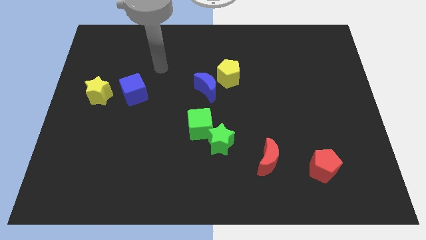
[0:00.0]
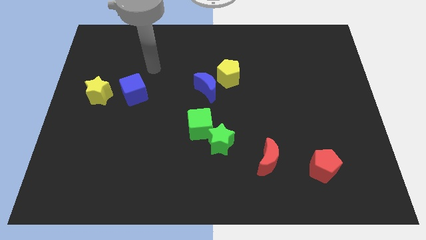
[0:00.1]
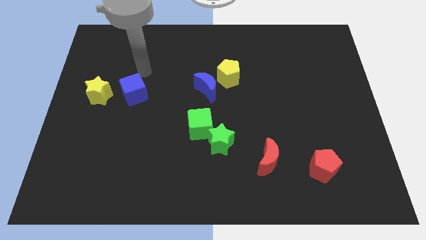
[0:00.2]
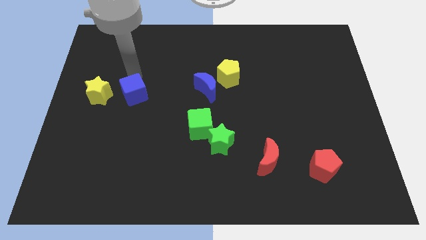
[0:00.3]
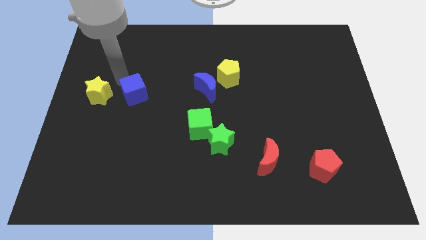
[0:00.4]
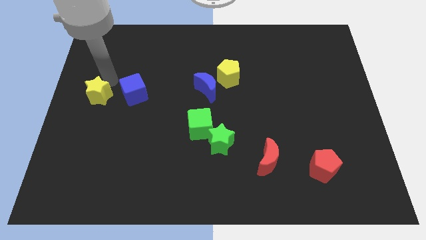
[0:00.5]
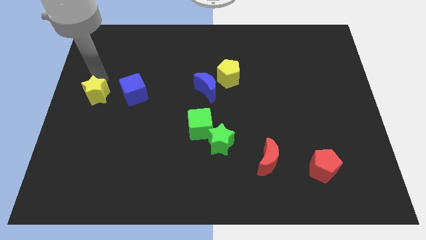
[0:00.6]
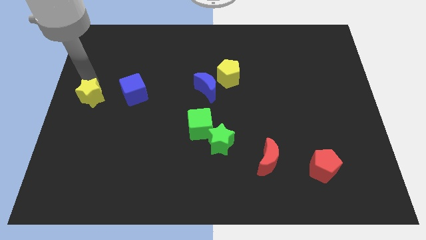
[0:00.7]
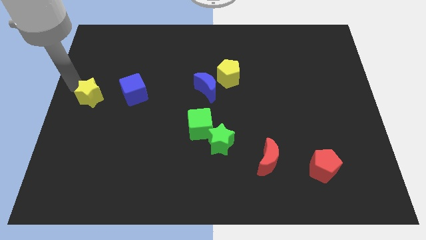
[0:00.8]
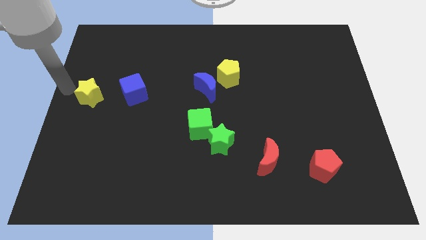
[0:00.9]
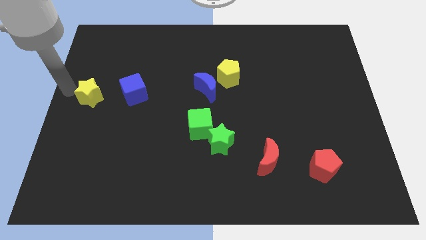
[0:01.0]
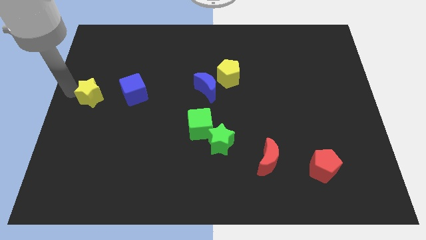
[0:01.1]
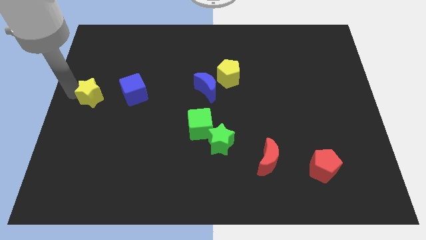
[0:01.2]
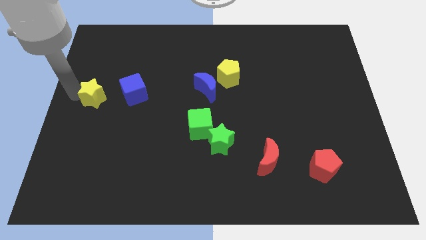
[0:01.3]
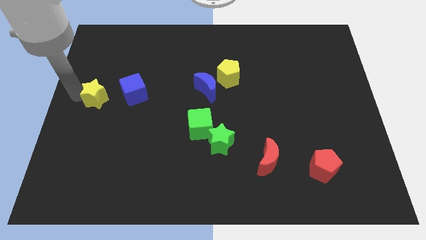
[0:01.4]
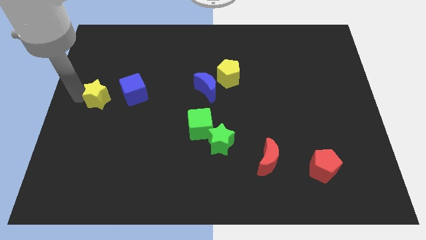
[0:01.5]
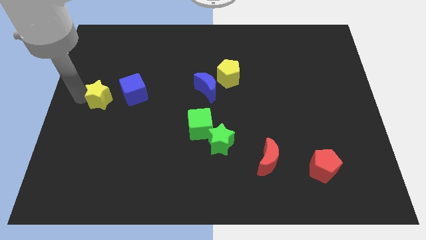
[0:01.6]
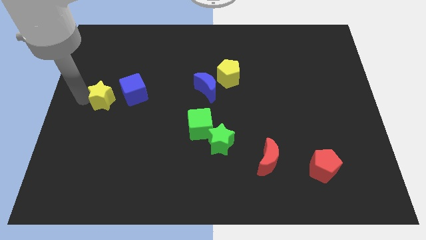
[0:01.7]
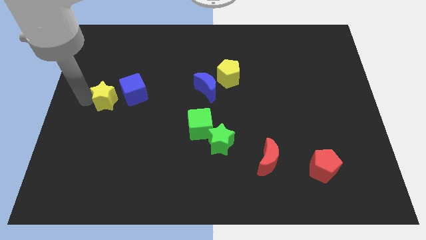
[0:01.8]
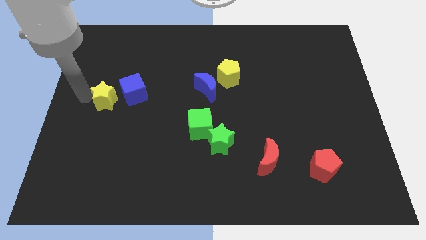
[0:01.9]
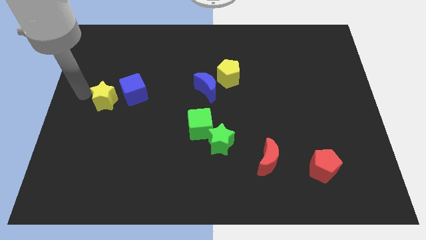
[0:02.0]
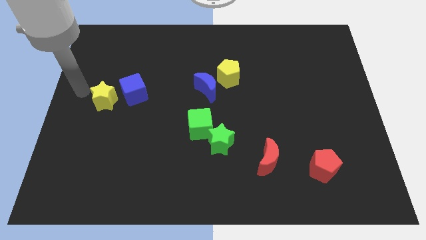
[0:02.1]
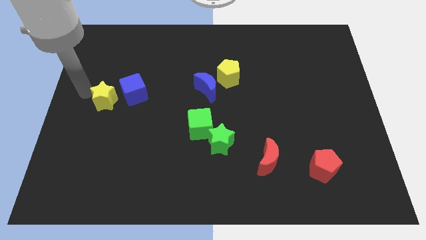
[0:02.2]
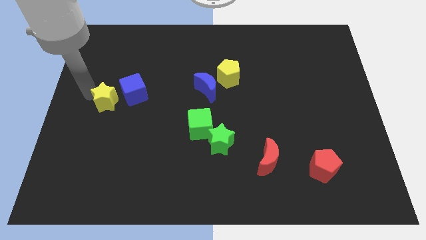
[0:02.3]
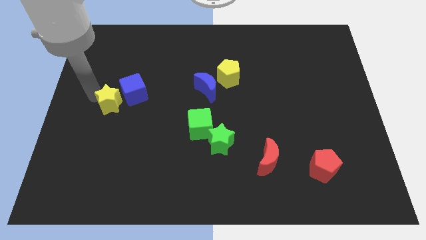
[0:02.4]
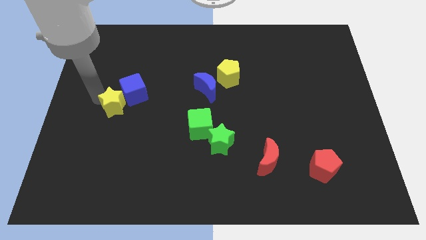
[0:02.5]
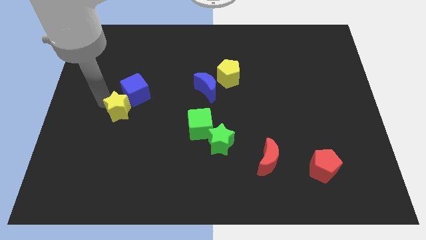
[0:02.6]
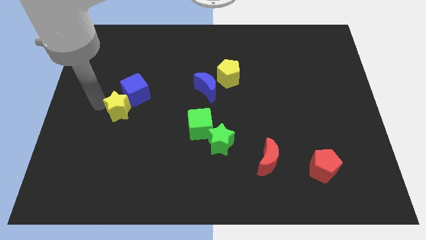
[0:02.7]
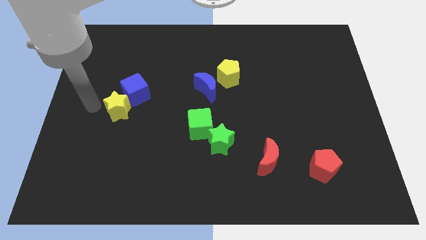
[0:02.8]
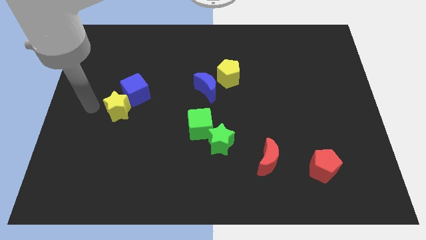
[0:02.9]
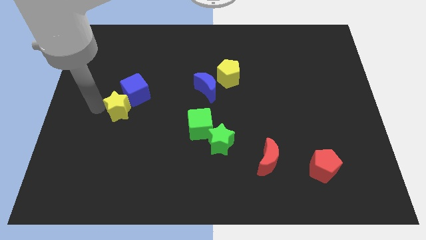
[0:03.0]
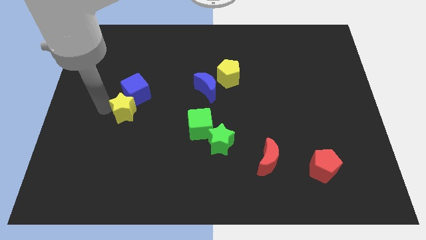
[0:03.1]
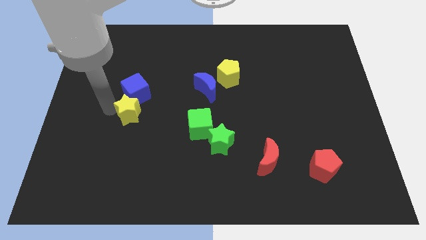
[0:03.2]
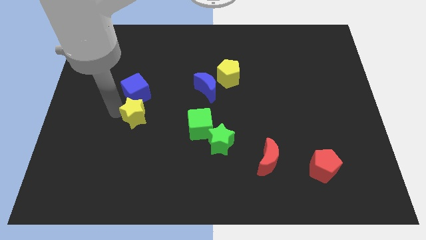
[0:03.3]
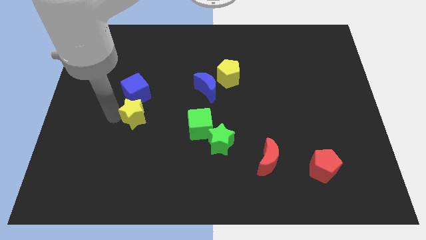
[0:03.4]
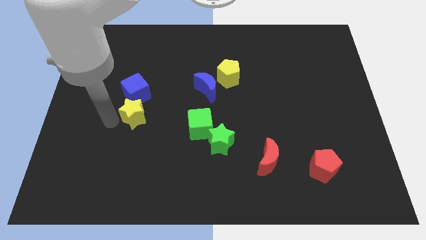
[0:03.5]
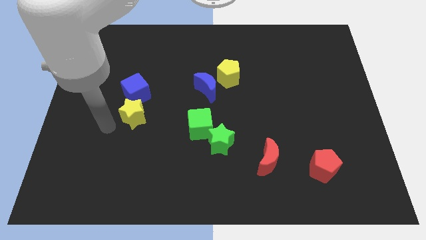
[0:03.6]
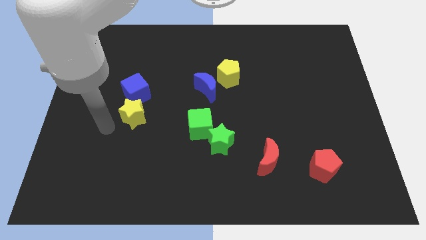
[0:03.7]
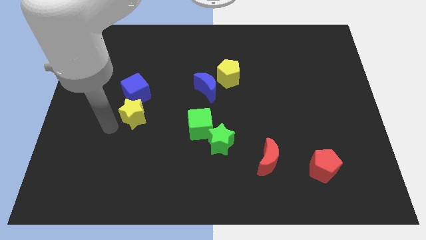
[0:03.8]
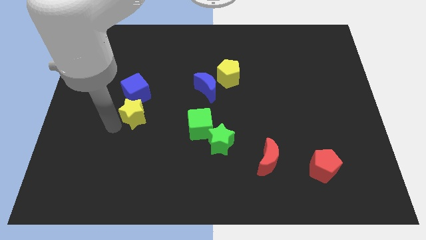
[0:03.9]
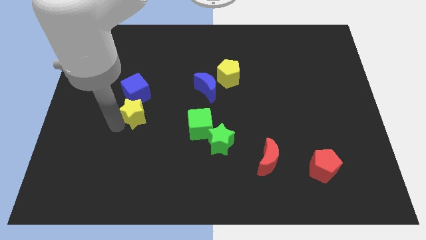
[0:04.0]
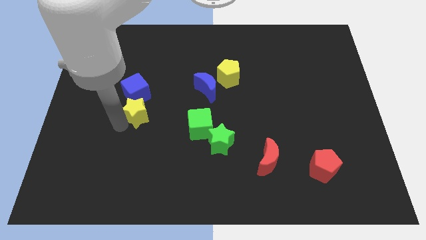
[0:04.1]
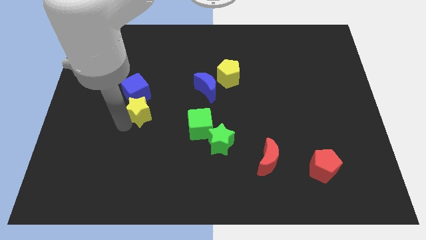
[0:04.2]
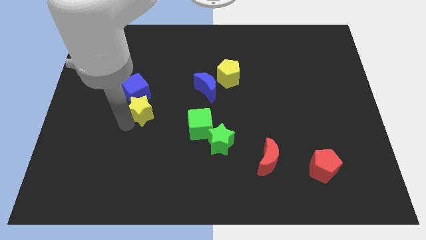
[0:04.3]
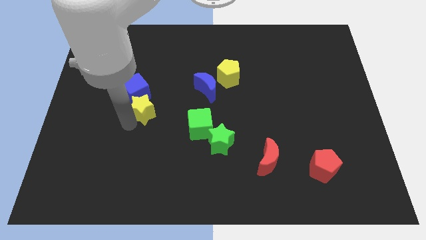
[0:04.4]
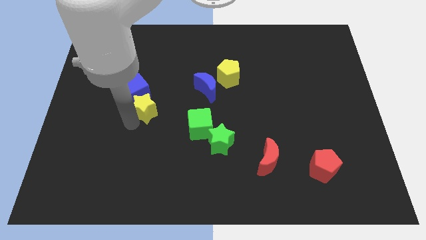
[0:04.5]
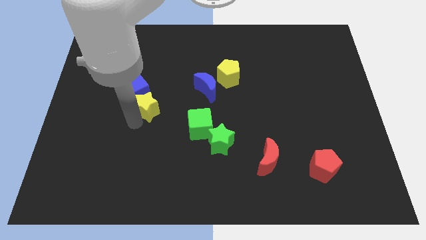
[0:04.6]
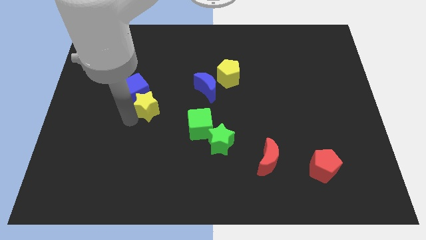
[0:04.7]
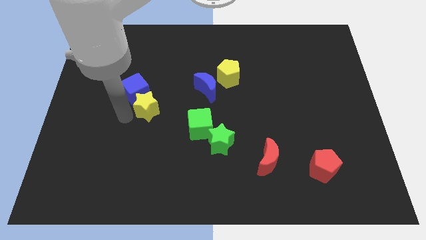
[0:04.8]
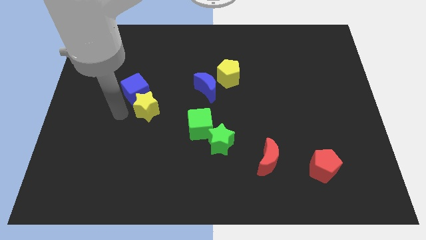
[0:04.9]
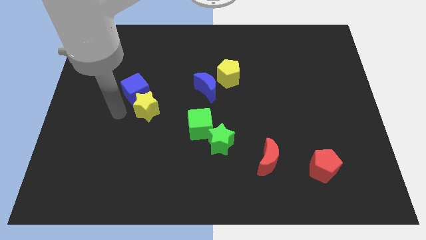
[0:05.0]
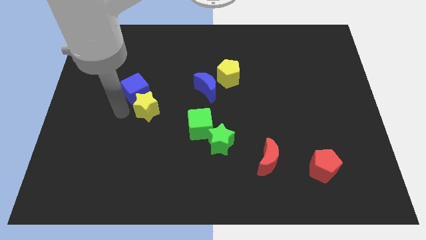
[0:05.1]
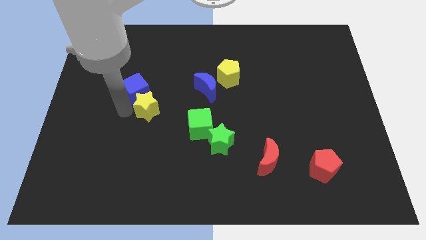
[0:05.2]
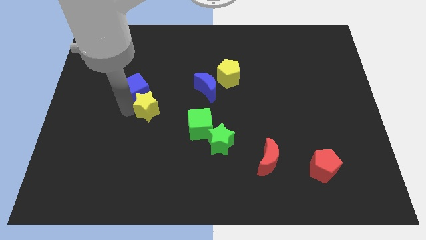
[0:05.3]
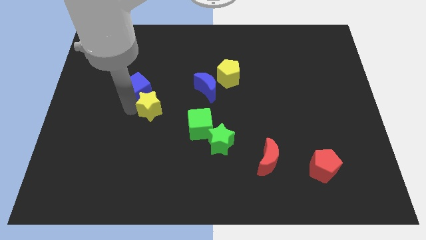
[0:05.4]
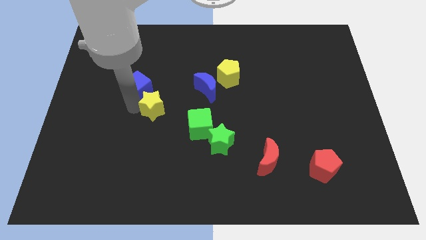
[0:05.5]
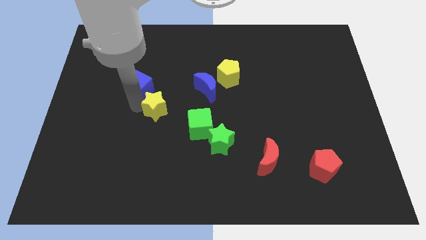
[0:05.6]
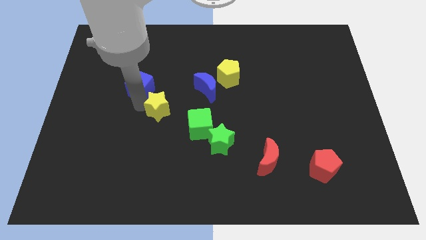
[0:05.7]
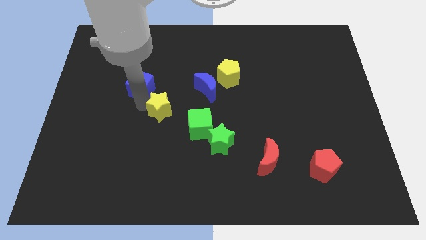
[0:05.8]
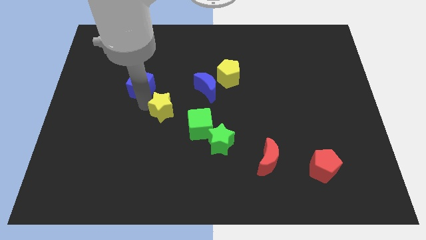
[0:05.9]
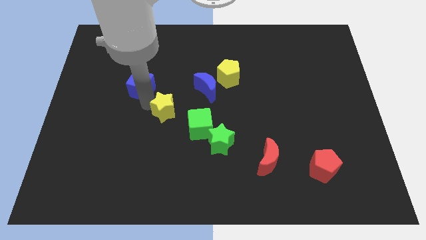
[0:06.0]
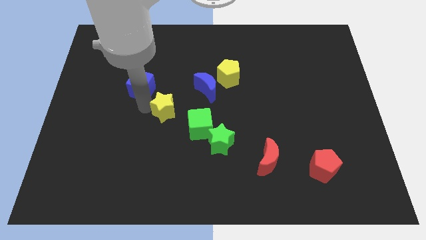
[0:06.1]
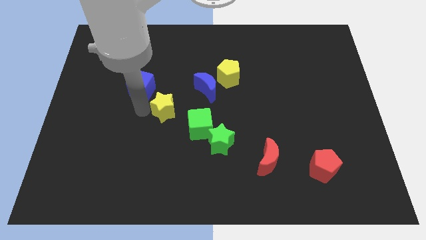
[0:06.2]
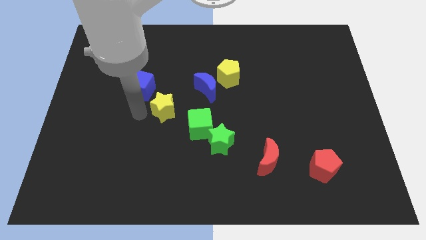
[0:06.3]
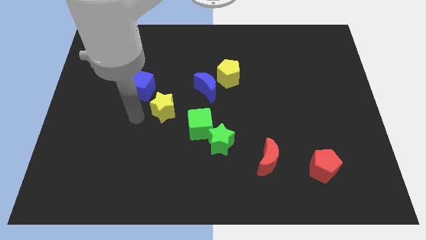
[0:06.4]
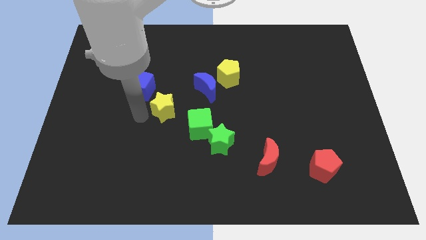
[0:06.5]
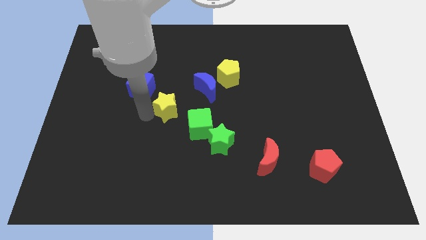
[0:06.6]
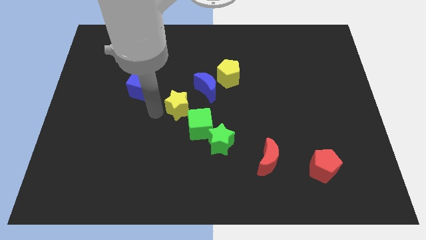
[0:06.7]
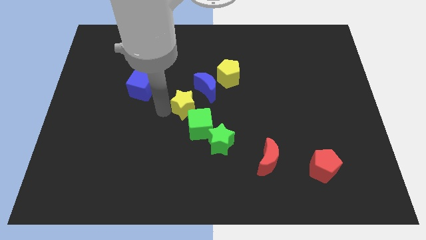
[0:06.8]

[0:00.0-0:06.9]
move the yellow star to the right

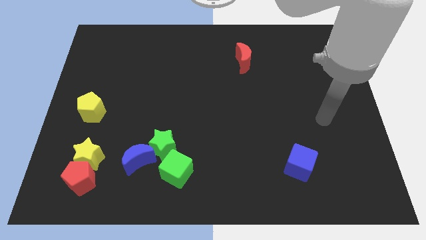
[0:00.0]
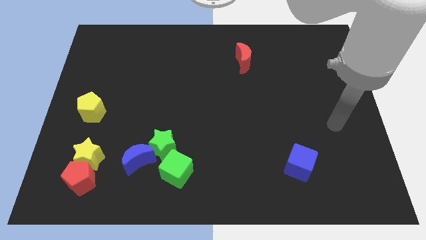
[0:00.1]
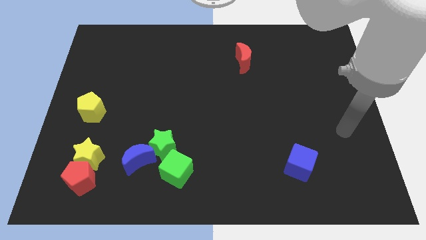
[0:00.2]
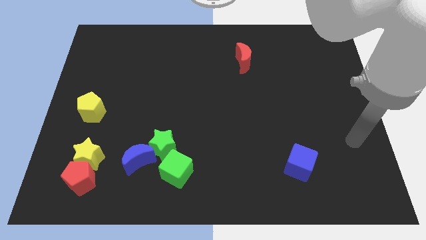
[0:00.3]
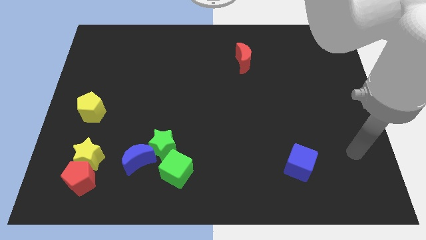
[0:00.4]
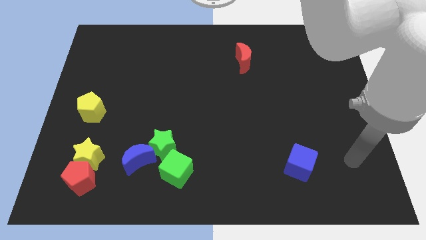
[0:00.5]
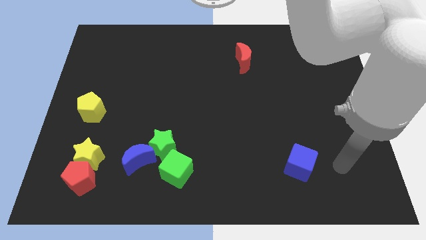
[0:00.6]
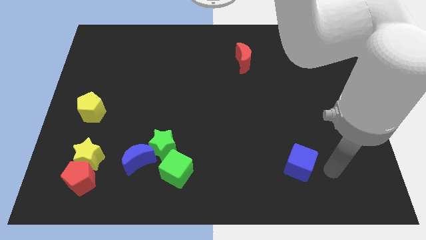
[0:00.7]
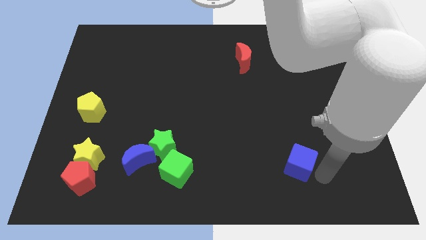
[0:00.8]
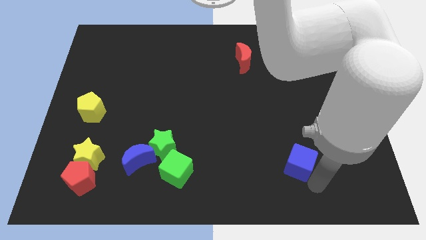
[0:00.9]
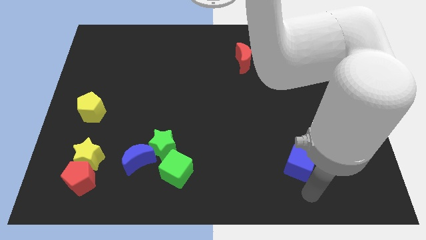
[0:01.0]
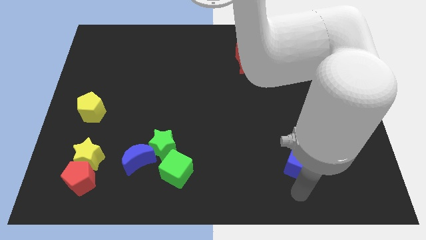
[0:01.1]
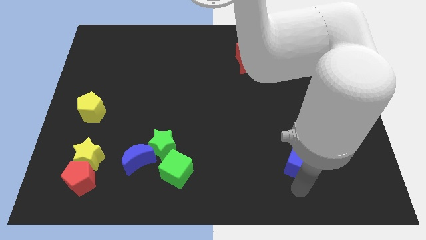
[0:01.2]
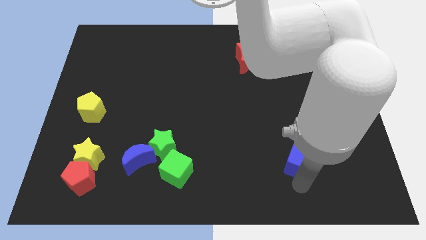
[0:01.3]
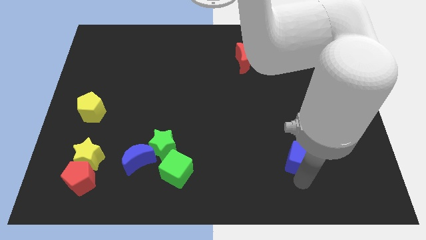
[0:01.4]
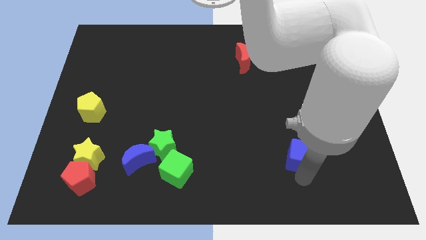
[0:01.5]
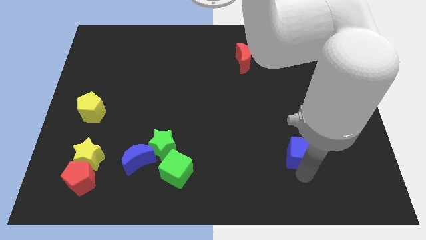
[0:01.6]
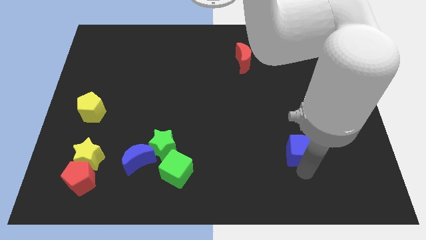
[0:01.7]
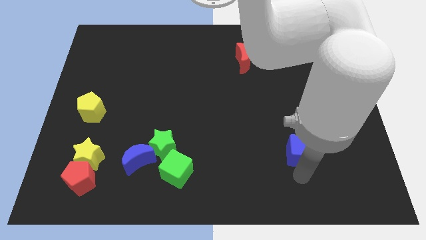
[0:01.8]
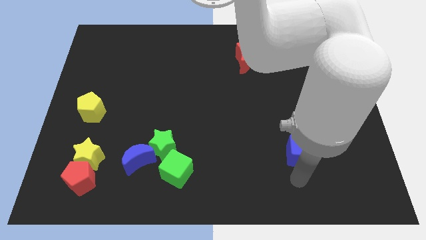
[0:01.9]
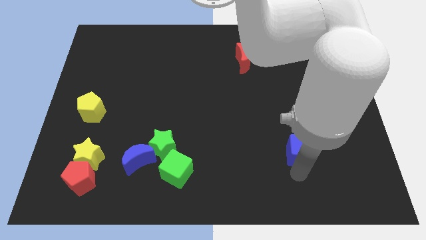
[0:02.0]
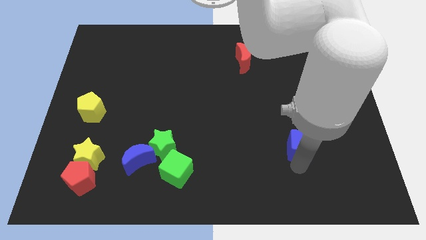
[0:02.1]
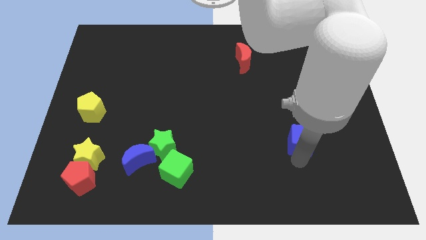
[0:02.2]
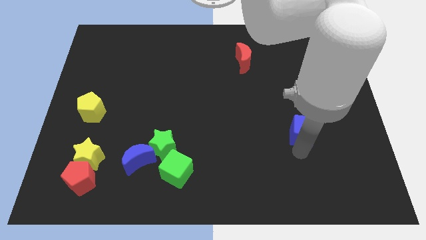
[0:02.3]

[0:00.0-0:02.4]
push the blue cube a little bit up
